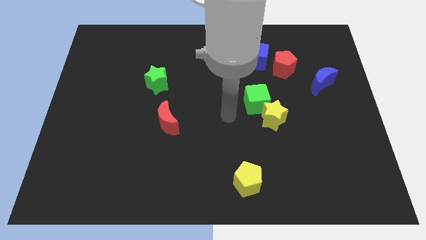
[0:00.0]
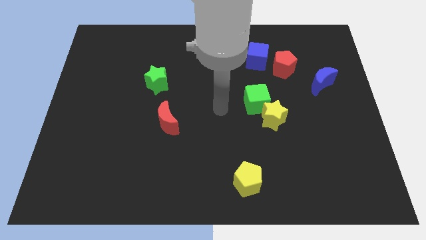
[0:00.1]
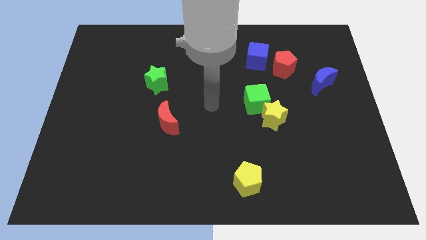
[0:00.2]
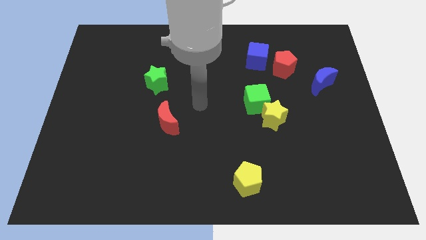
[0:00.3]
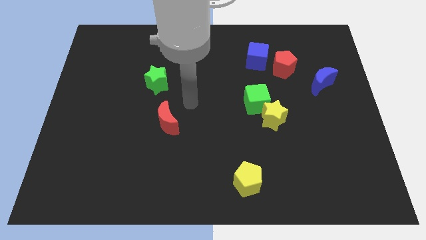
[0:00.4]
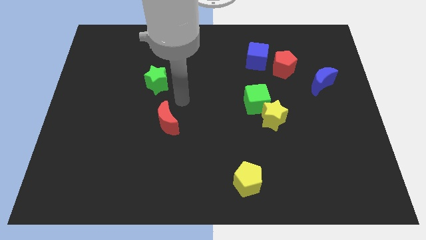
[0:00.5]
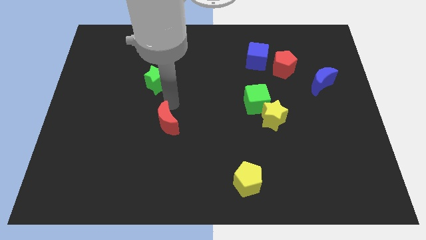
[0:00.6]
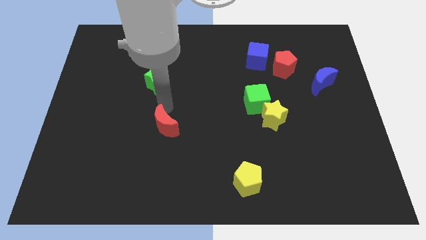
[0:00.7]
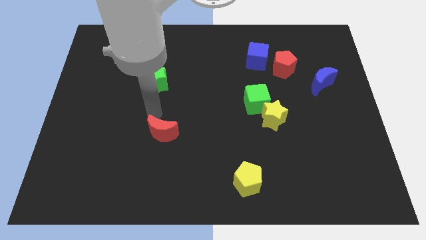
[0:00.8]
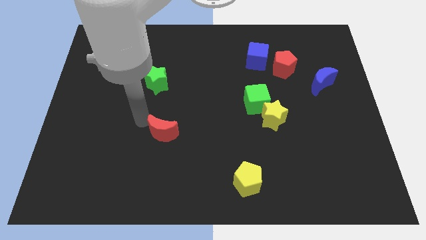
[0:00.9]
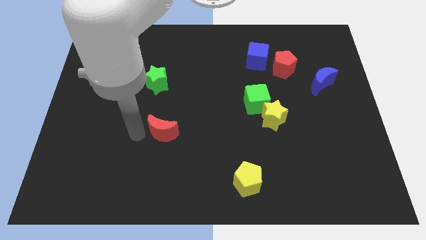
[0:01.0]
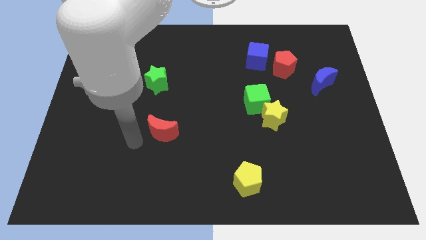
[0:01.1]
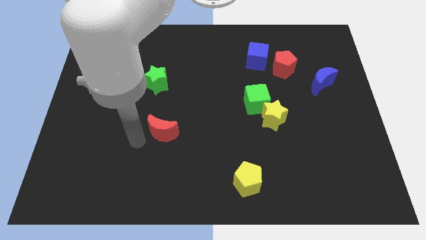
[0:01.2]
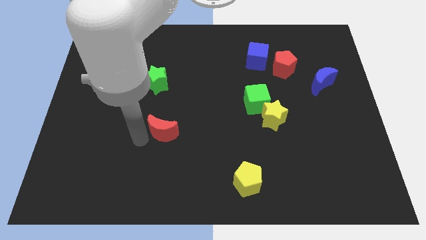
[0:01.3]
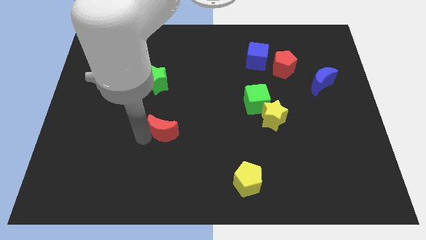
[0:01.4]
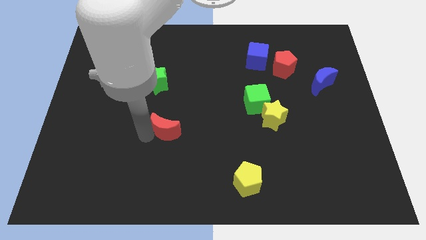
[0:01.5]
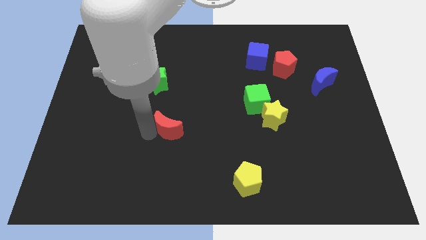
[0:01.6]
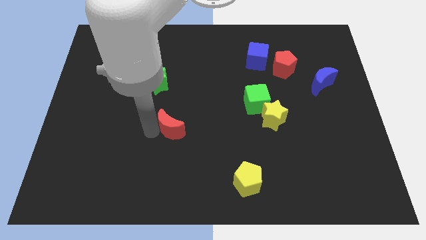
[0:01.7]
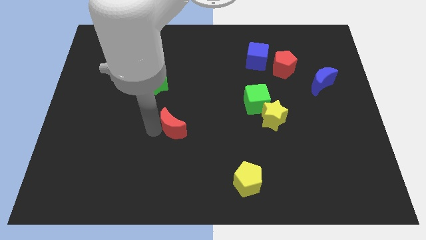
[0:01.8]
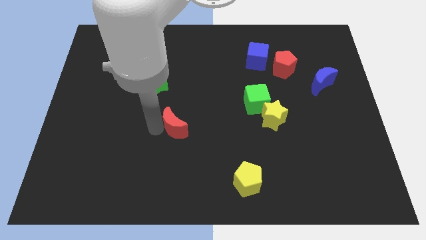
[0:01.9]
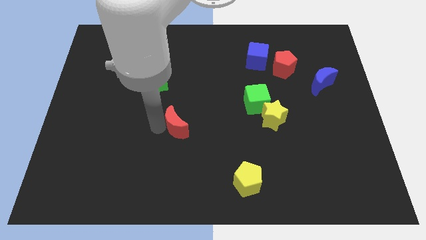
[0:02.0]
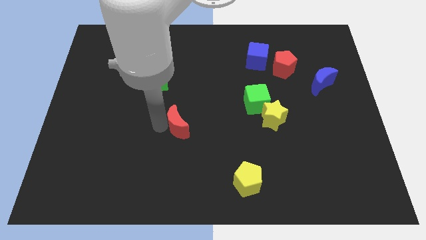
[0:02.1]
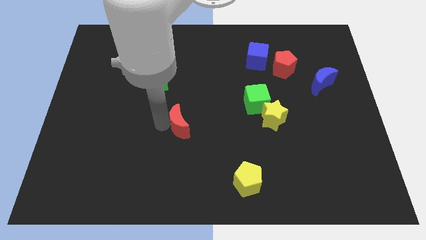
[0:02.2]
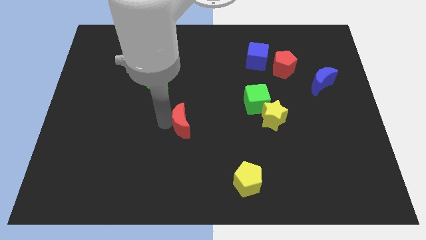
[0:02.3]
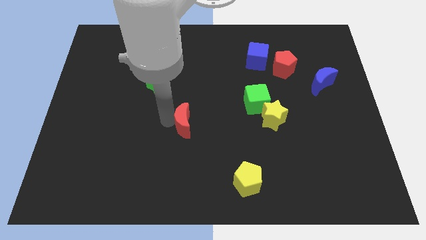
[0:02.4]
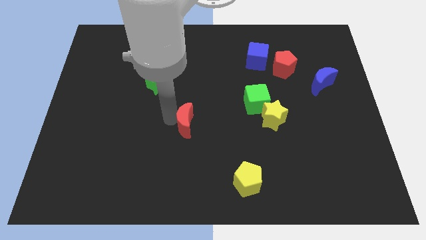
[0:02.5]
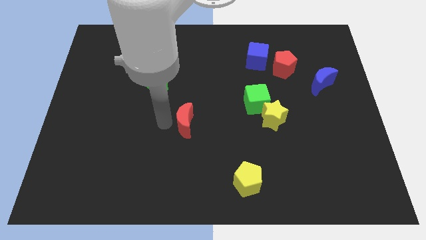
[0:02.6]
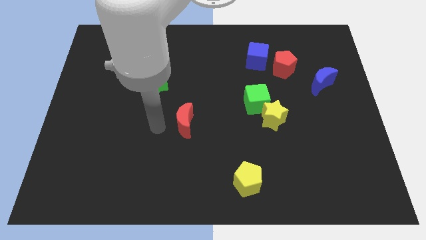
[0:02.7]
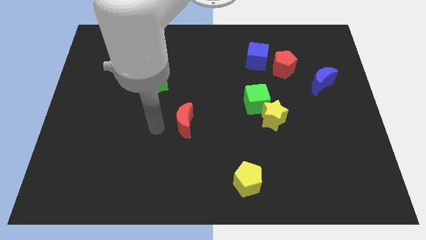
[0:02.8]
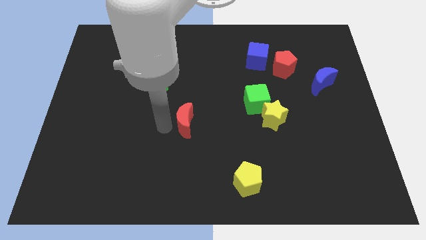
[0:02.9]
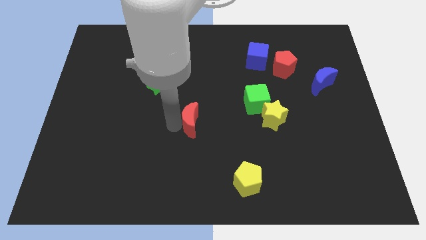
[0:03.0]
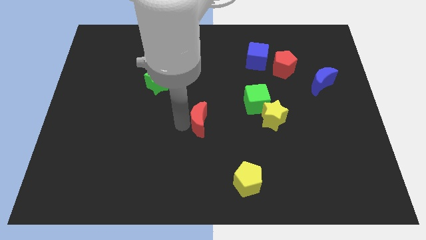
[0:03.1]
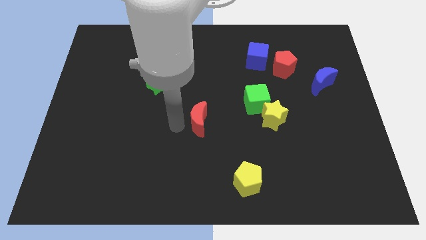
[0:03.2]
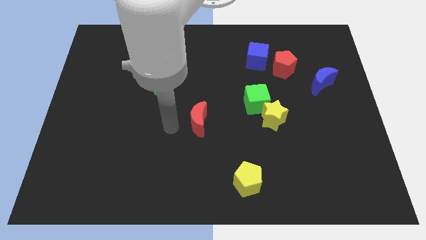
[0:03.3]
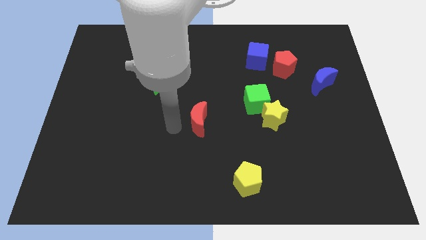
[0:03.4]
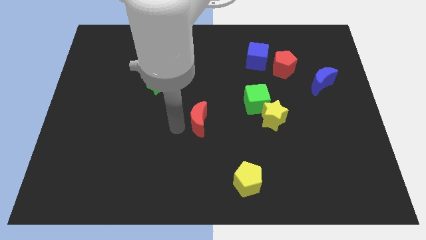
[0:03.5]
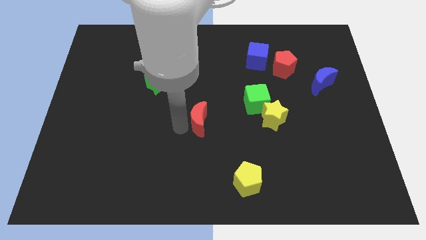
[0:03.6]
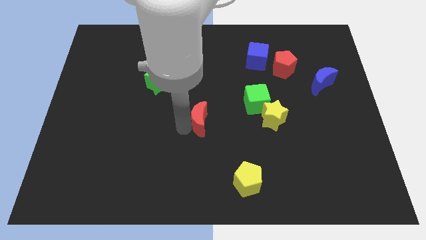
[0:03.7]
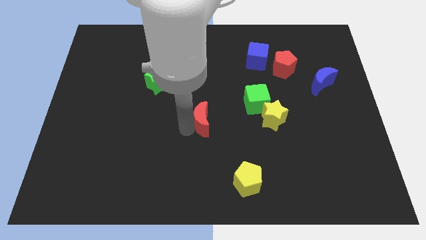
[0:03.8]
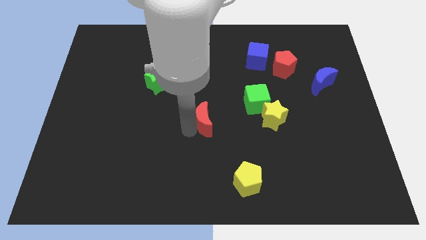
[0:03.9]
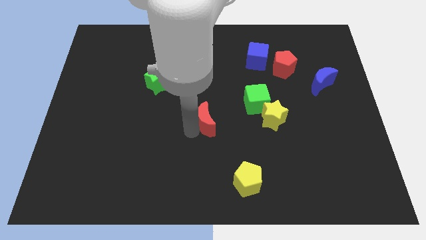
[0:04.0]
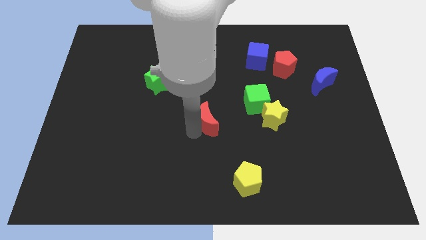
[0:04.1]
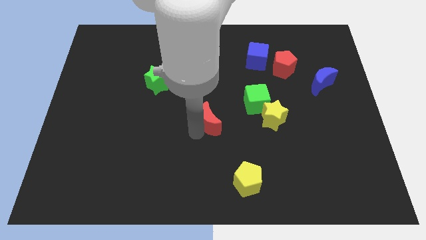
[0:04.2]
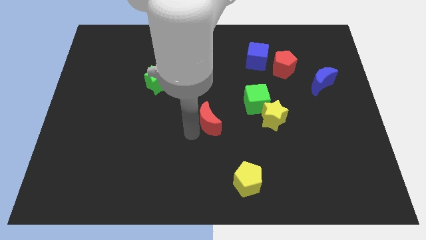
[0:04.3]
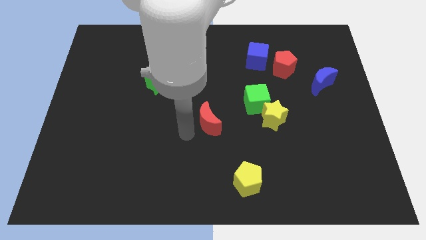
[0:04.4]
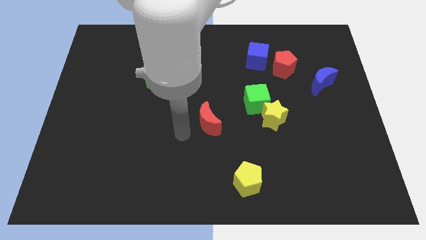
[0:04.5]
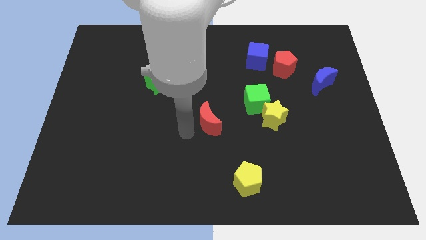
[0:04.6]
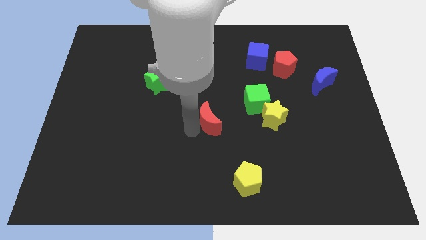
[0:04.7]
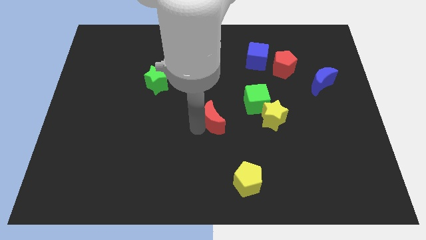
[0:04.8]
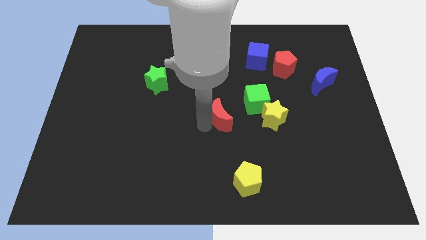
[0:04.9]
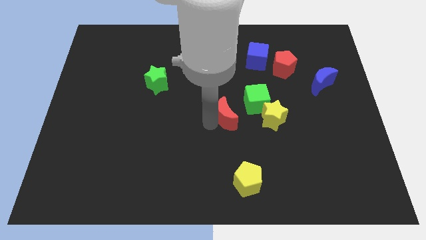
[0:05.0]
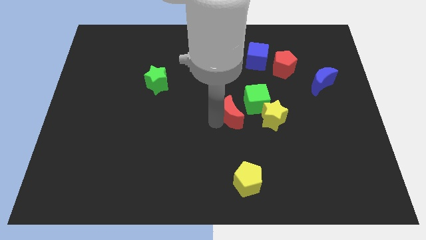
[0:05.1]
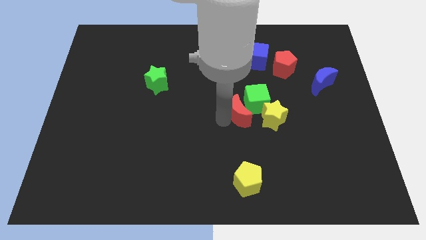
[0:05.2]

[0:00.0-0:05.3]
push the red moon next to the green cube

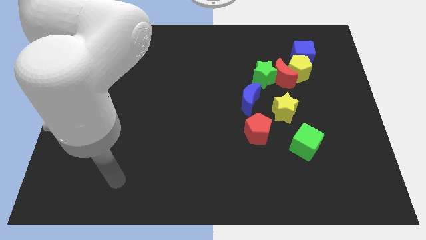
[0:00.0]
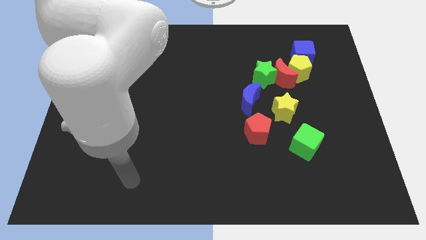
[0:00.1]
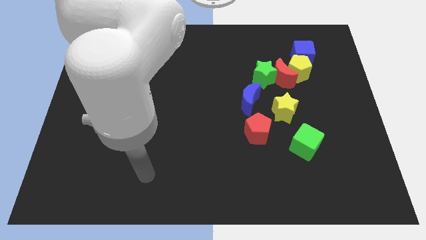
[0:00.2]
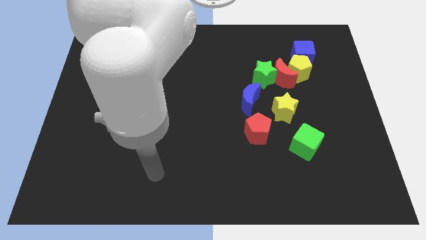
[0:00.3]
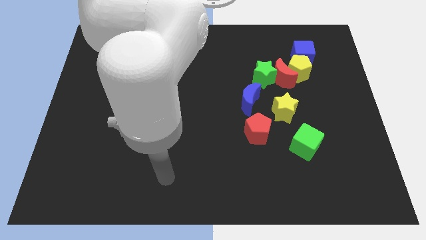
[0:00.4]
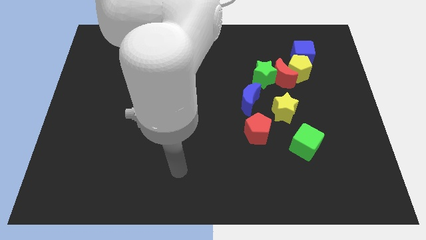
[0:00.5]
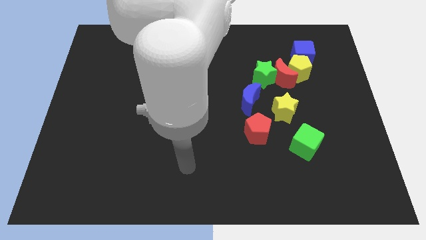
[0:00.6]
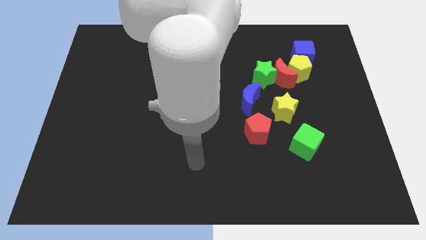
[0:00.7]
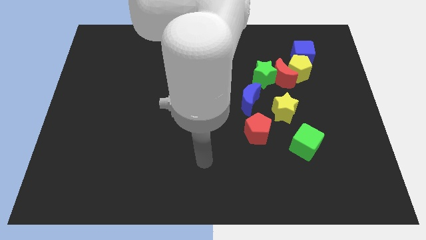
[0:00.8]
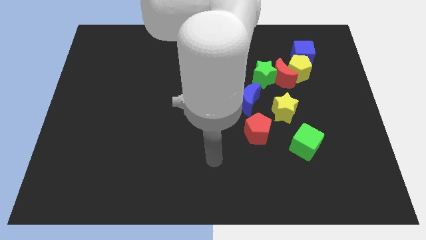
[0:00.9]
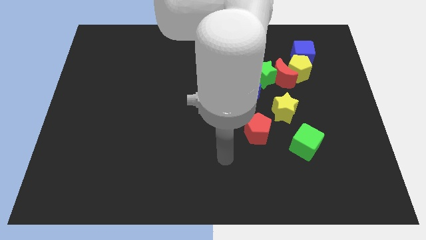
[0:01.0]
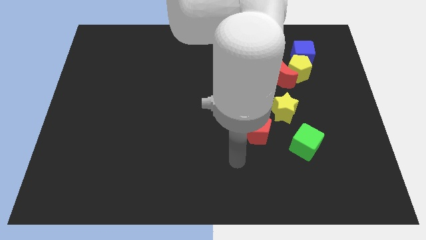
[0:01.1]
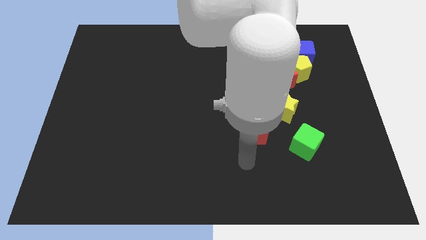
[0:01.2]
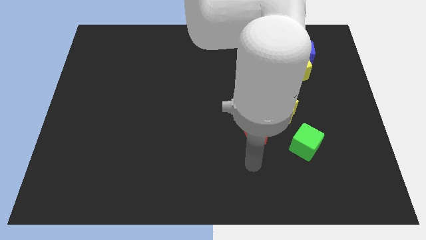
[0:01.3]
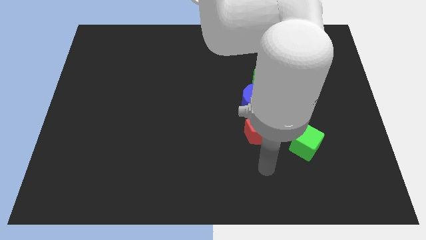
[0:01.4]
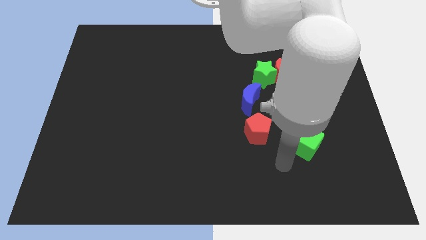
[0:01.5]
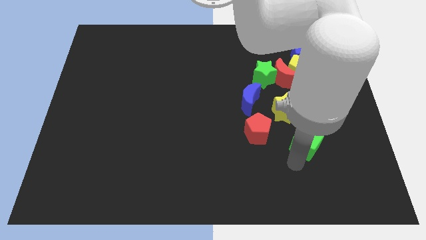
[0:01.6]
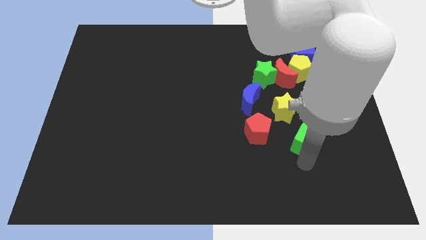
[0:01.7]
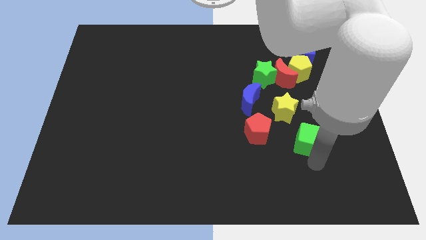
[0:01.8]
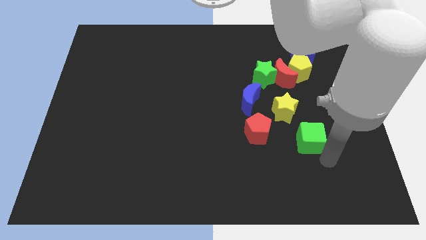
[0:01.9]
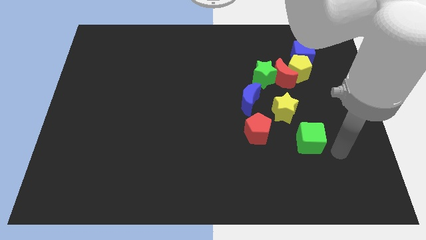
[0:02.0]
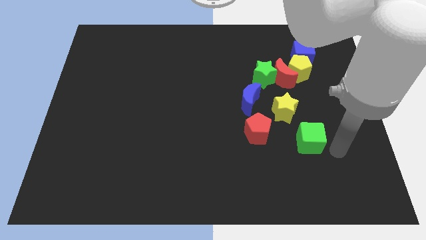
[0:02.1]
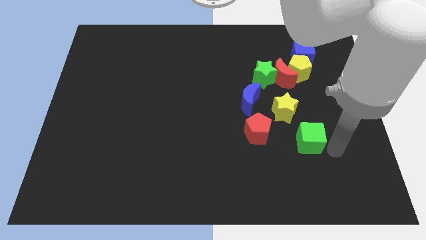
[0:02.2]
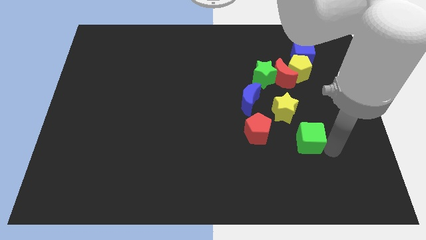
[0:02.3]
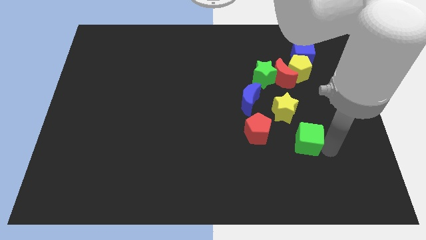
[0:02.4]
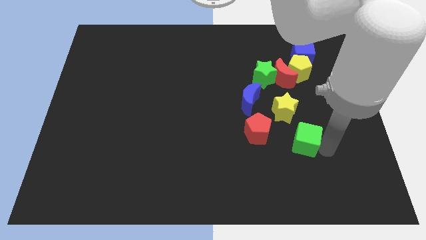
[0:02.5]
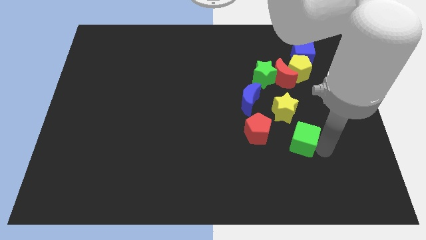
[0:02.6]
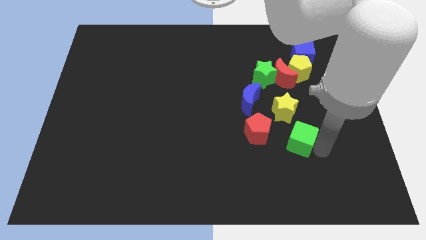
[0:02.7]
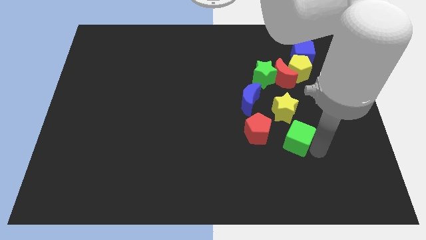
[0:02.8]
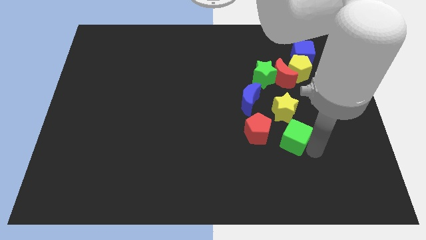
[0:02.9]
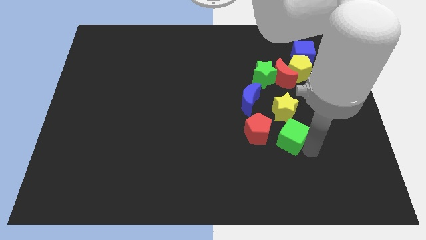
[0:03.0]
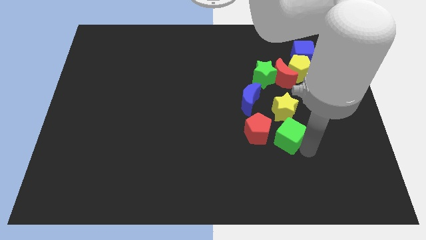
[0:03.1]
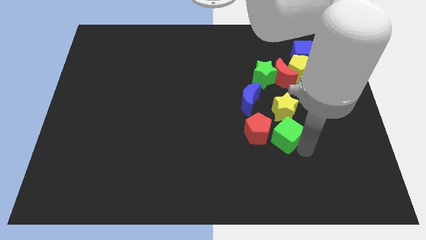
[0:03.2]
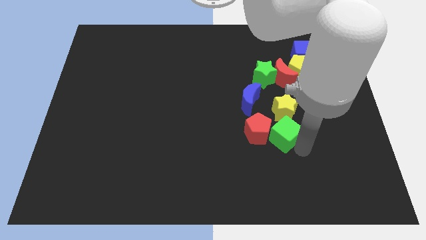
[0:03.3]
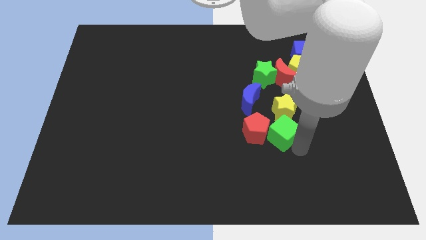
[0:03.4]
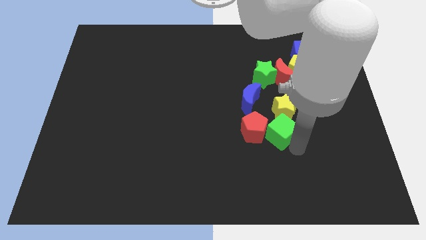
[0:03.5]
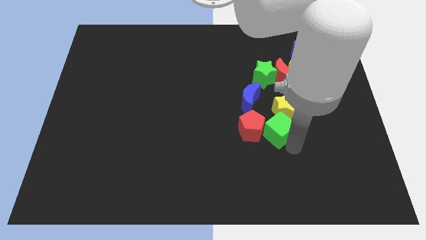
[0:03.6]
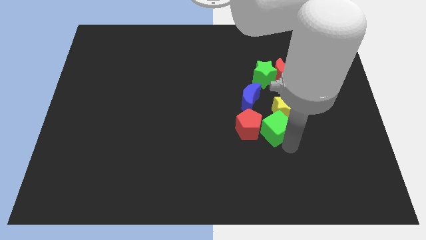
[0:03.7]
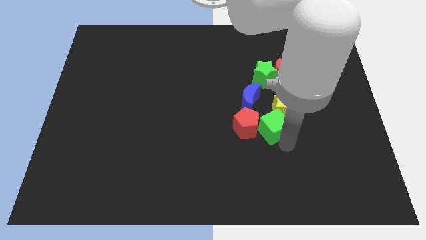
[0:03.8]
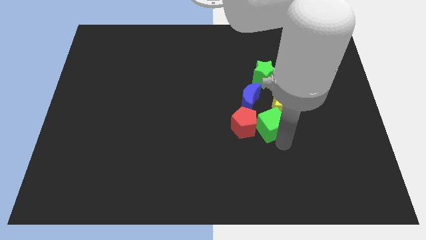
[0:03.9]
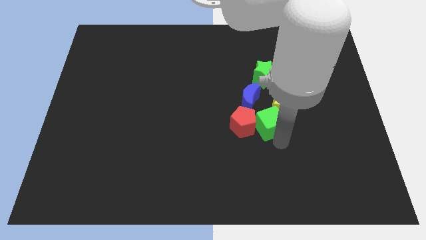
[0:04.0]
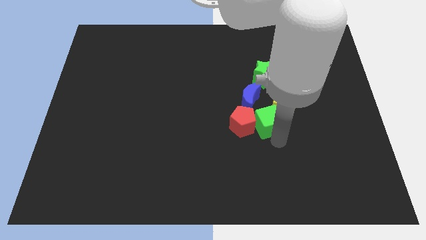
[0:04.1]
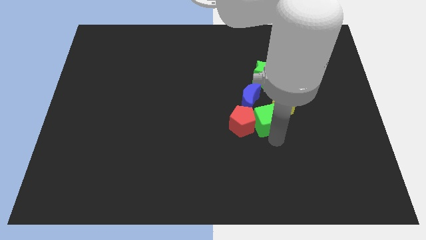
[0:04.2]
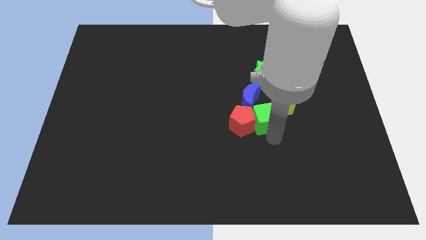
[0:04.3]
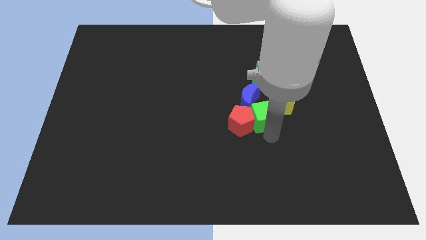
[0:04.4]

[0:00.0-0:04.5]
move the green cube close to the blue moon
